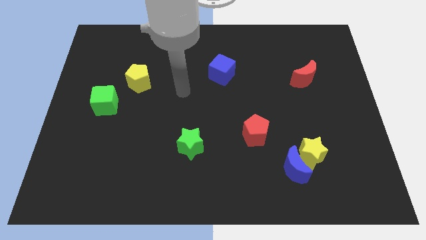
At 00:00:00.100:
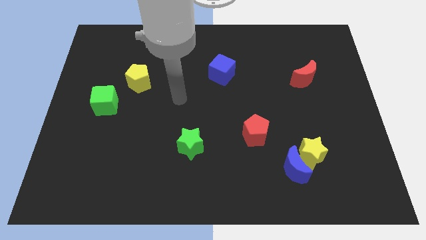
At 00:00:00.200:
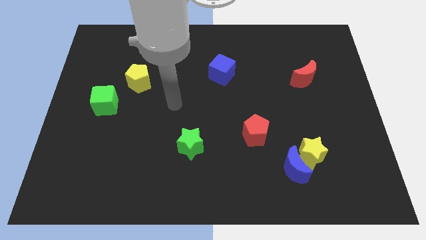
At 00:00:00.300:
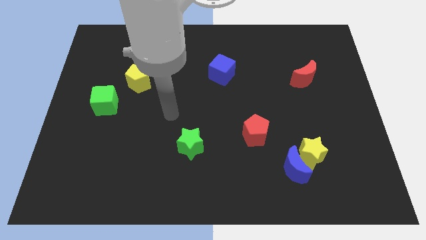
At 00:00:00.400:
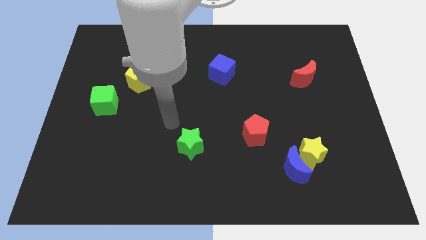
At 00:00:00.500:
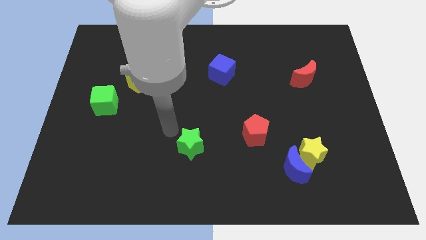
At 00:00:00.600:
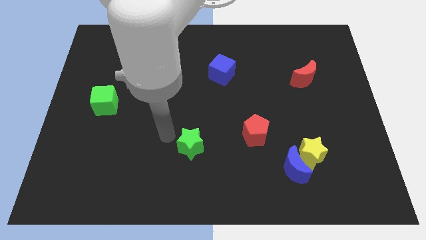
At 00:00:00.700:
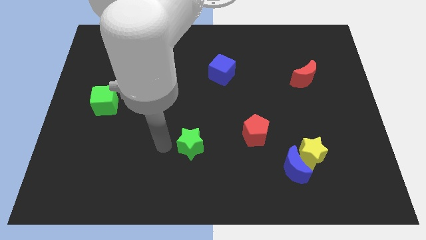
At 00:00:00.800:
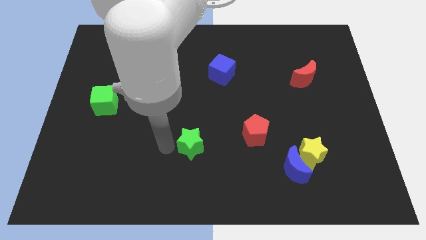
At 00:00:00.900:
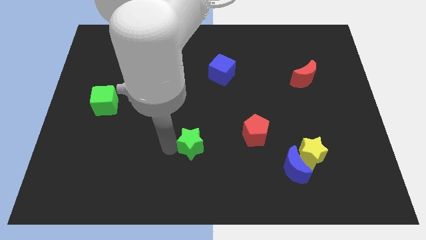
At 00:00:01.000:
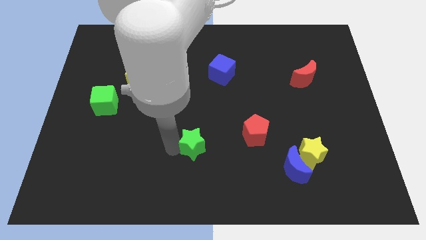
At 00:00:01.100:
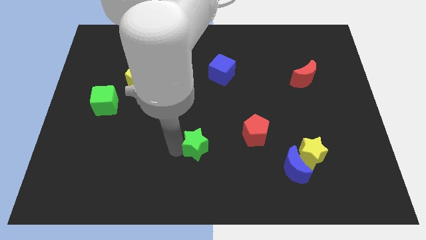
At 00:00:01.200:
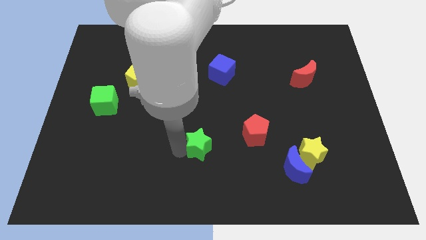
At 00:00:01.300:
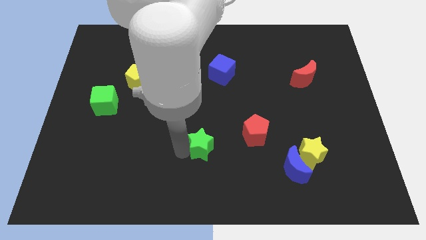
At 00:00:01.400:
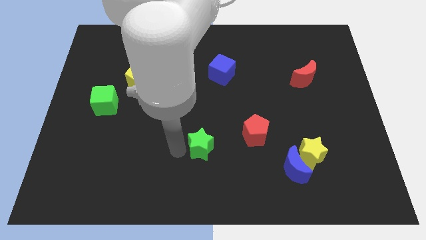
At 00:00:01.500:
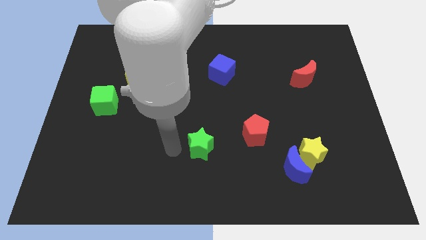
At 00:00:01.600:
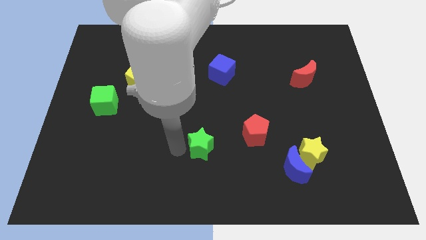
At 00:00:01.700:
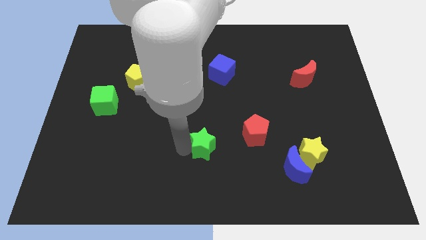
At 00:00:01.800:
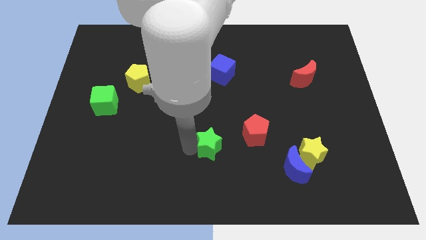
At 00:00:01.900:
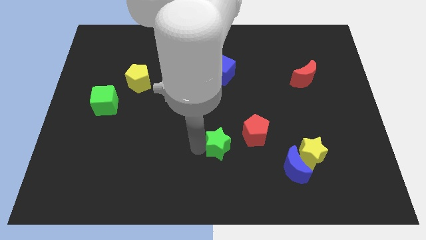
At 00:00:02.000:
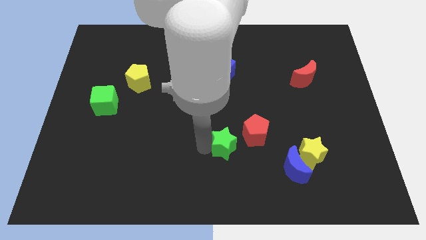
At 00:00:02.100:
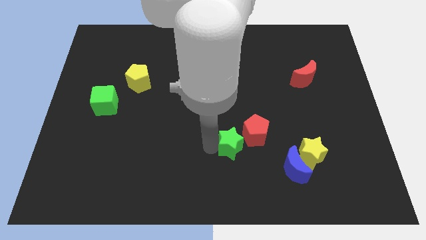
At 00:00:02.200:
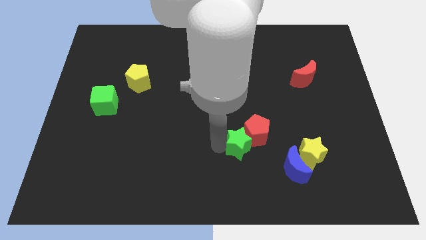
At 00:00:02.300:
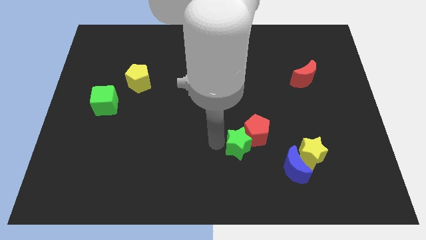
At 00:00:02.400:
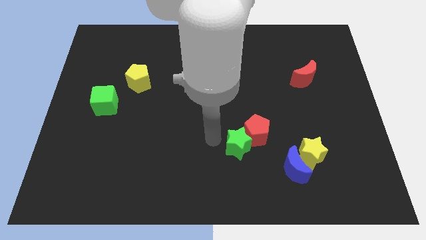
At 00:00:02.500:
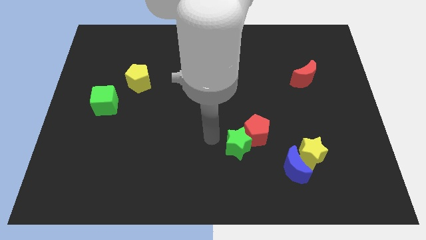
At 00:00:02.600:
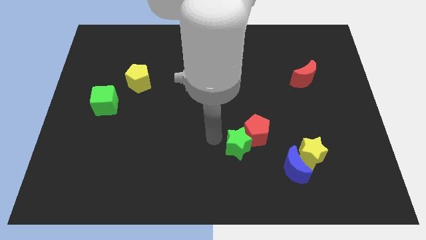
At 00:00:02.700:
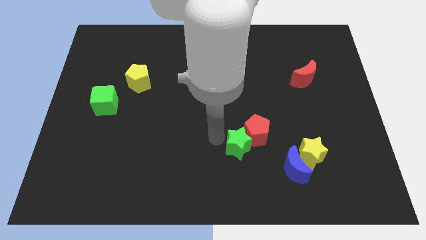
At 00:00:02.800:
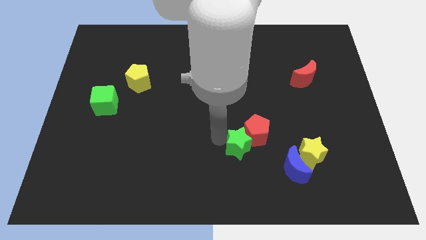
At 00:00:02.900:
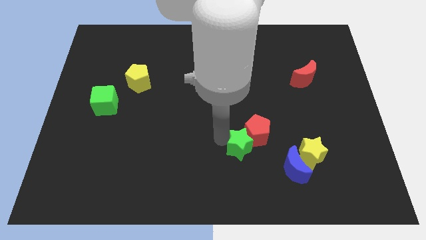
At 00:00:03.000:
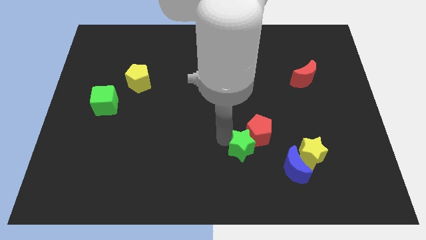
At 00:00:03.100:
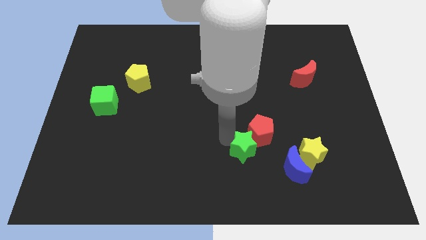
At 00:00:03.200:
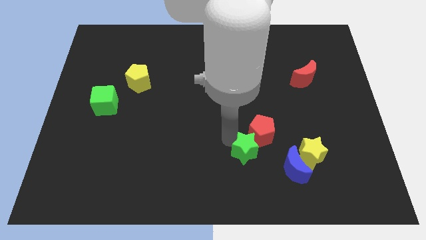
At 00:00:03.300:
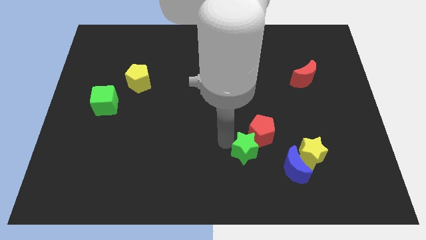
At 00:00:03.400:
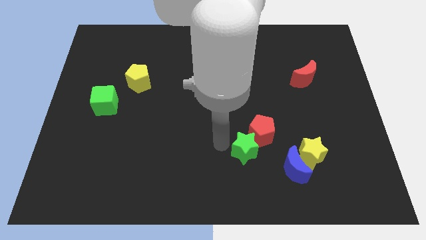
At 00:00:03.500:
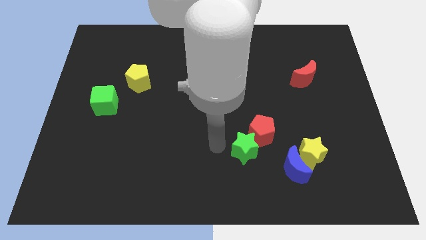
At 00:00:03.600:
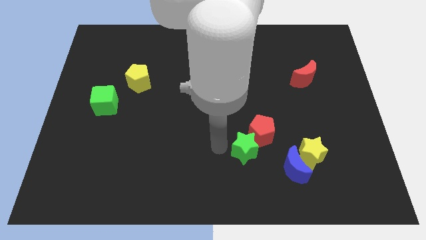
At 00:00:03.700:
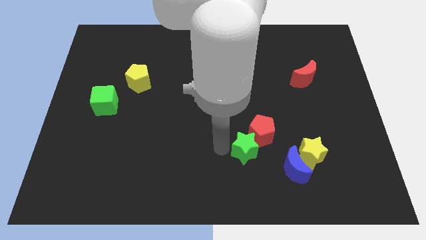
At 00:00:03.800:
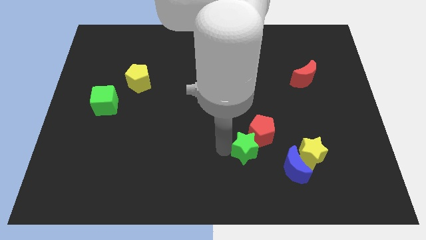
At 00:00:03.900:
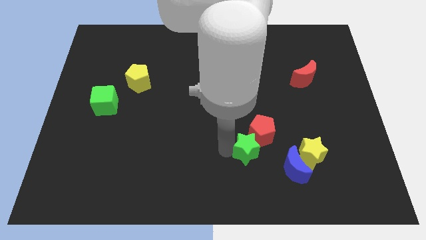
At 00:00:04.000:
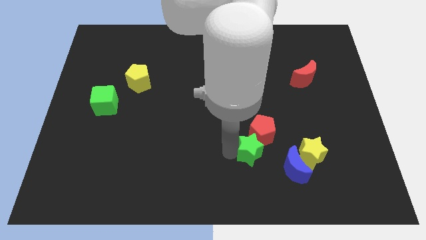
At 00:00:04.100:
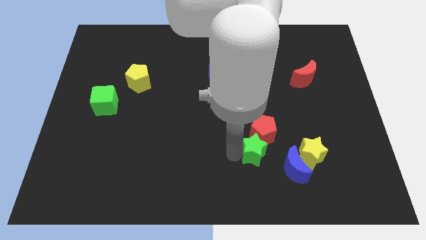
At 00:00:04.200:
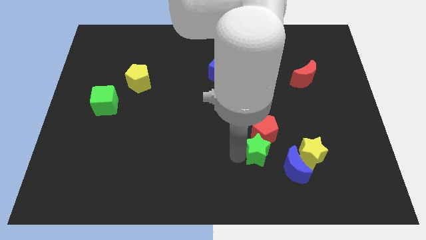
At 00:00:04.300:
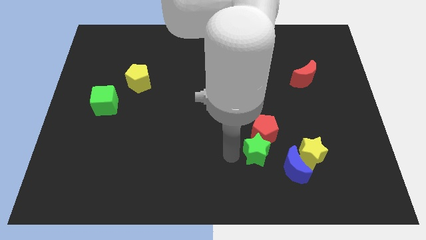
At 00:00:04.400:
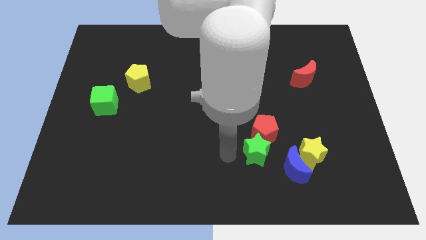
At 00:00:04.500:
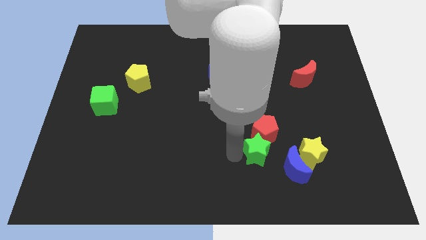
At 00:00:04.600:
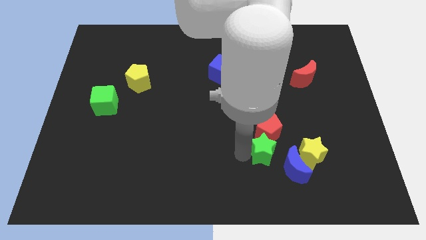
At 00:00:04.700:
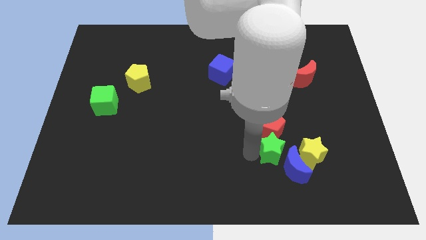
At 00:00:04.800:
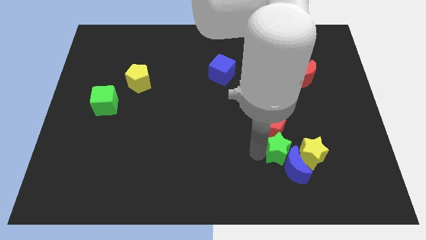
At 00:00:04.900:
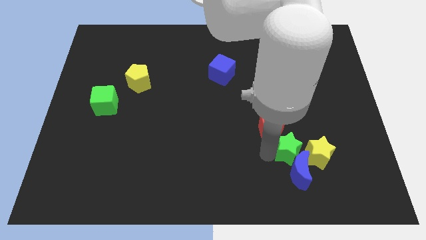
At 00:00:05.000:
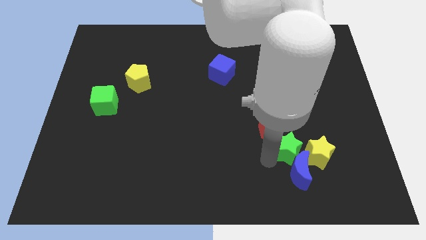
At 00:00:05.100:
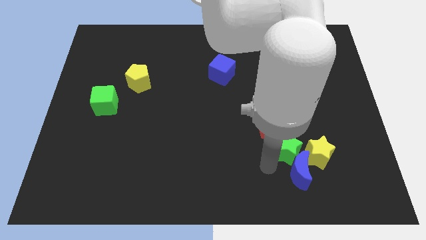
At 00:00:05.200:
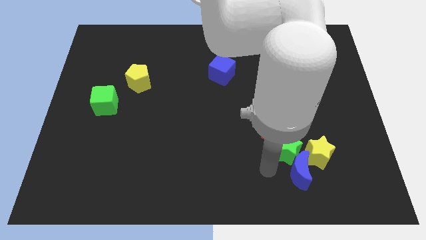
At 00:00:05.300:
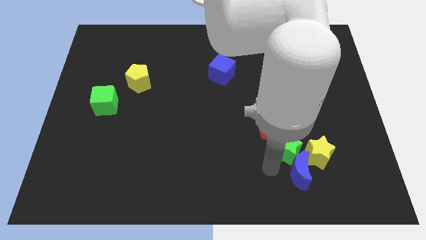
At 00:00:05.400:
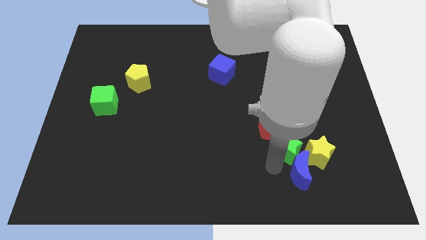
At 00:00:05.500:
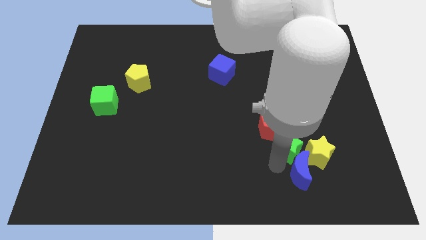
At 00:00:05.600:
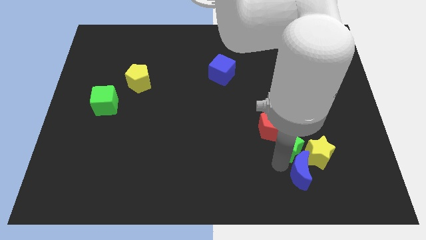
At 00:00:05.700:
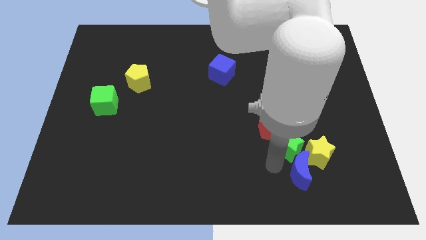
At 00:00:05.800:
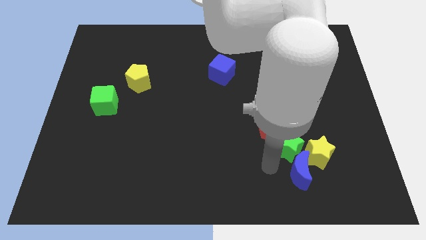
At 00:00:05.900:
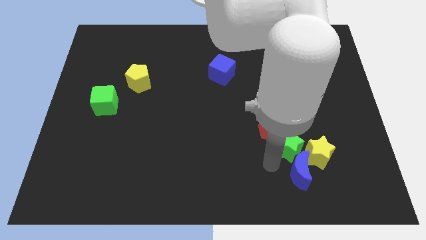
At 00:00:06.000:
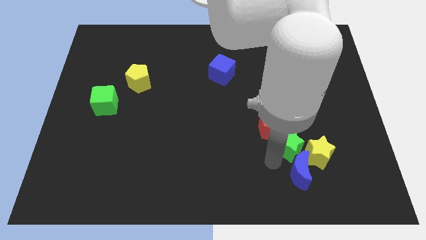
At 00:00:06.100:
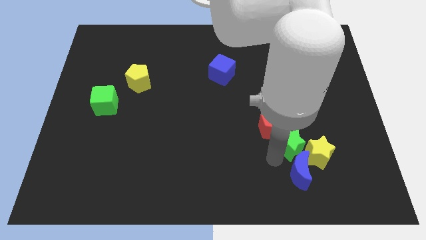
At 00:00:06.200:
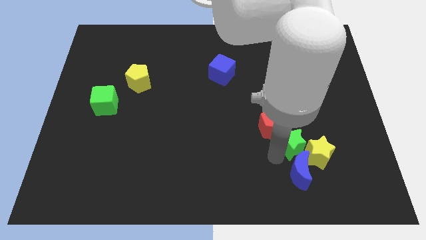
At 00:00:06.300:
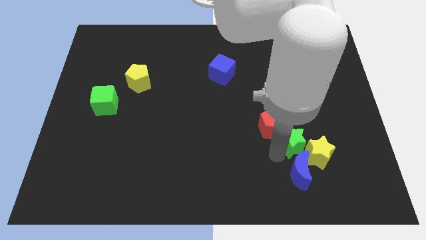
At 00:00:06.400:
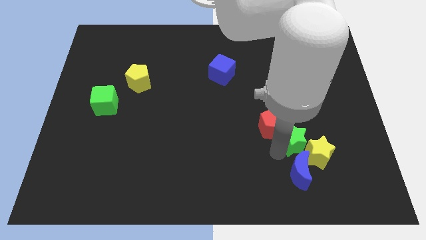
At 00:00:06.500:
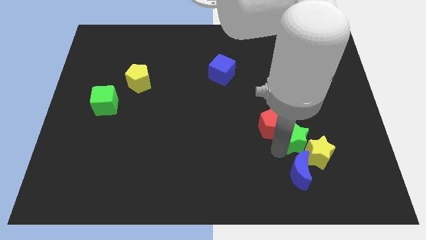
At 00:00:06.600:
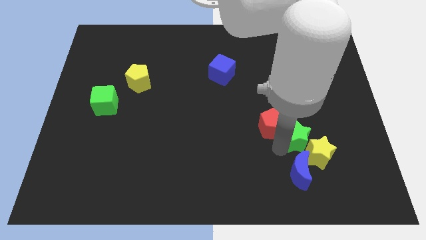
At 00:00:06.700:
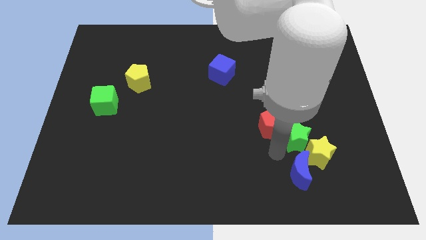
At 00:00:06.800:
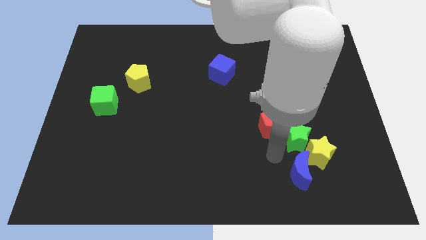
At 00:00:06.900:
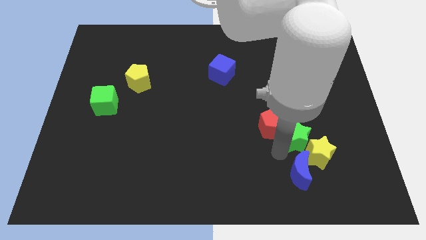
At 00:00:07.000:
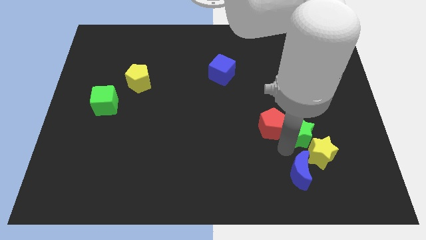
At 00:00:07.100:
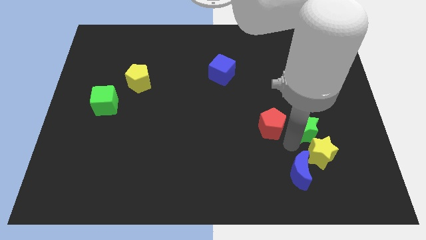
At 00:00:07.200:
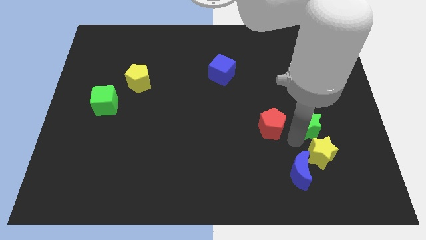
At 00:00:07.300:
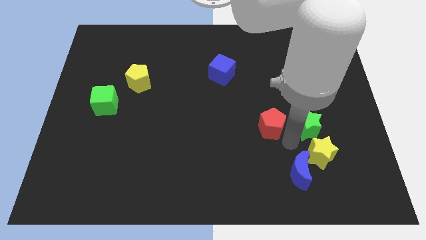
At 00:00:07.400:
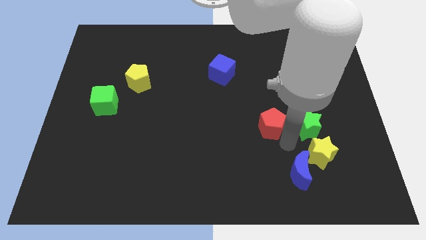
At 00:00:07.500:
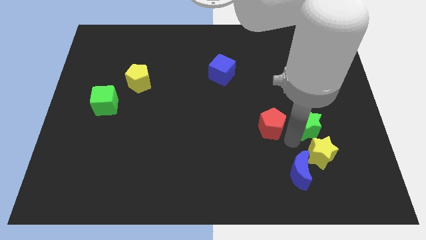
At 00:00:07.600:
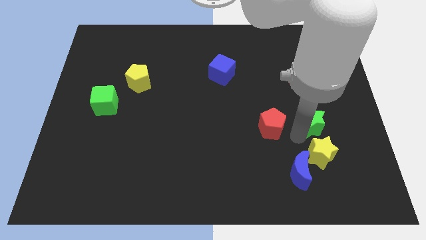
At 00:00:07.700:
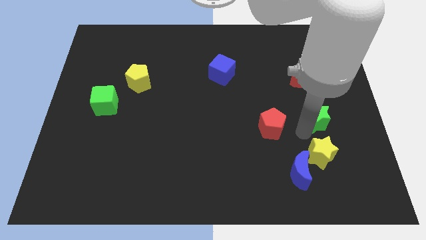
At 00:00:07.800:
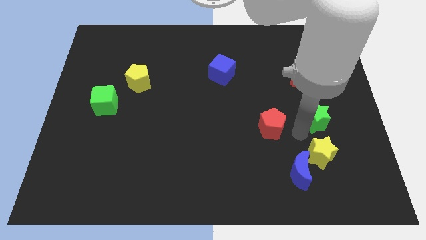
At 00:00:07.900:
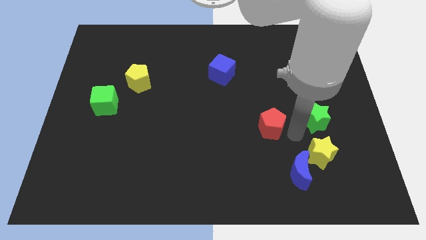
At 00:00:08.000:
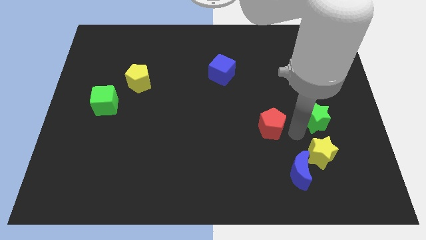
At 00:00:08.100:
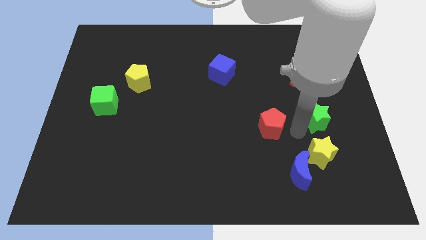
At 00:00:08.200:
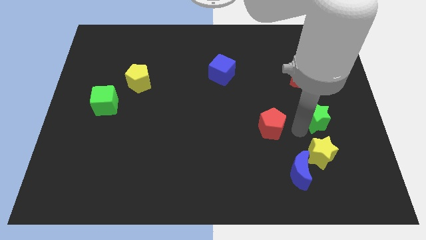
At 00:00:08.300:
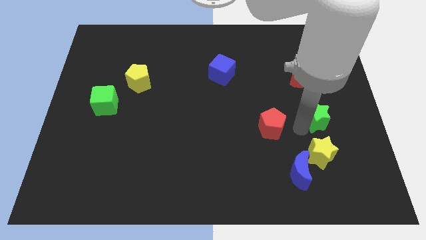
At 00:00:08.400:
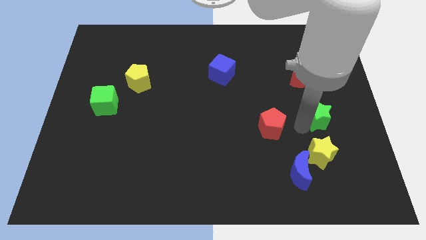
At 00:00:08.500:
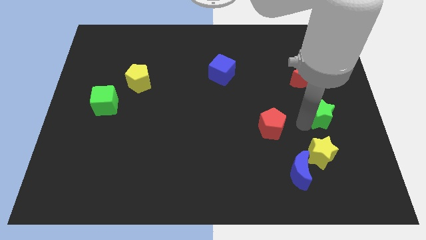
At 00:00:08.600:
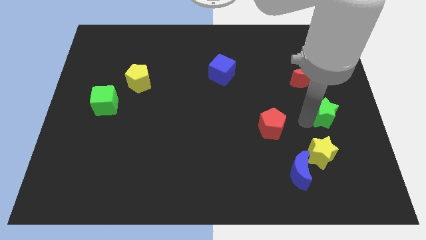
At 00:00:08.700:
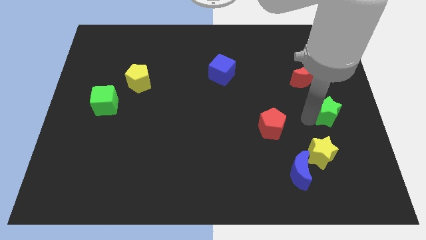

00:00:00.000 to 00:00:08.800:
slide the green star to the right side
